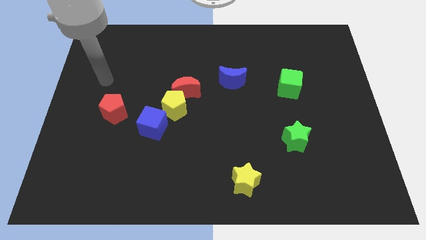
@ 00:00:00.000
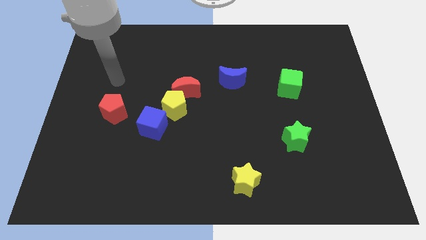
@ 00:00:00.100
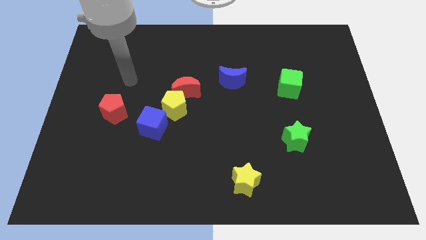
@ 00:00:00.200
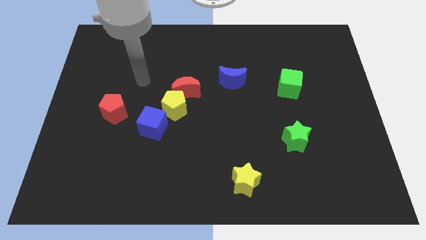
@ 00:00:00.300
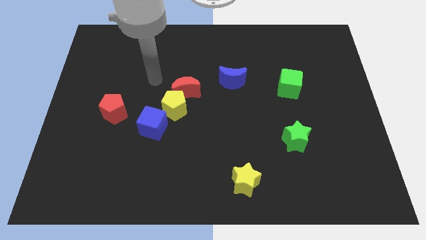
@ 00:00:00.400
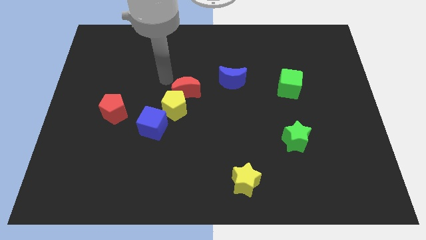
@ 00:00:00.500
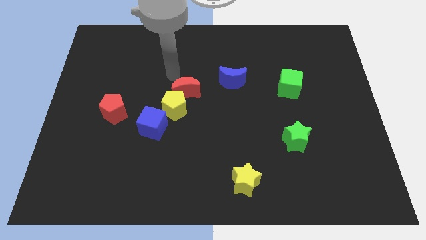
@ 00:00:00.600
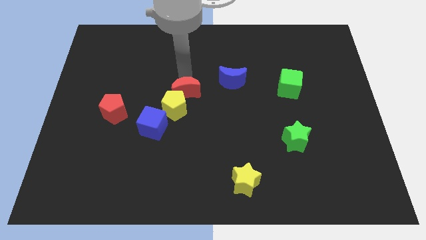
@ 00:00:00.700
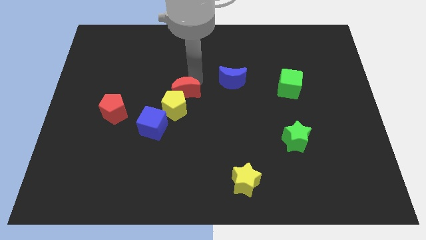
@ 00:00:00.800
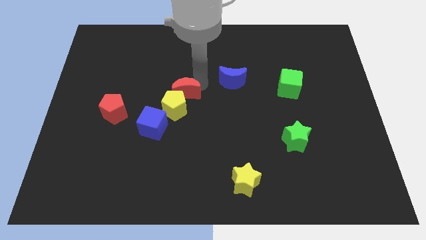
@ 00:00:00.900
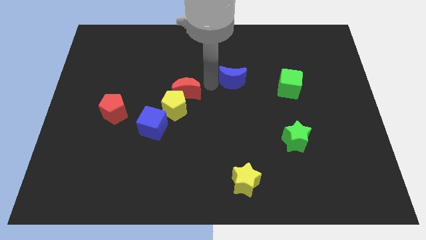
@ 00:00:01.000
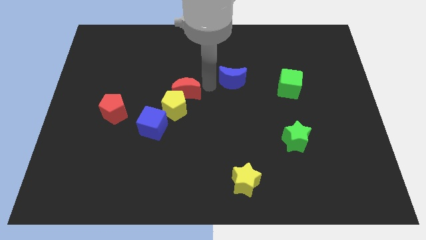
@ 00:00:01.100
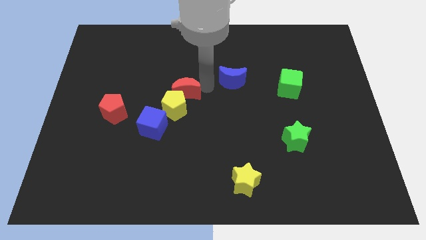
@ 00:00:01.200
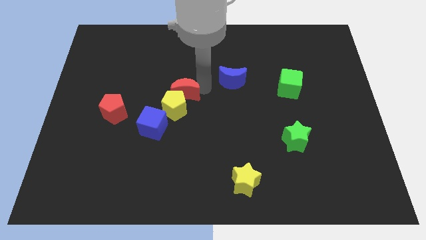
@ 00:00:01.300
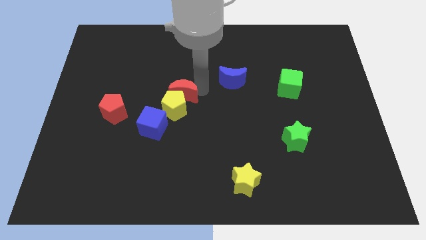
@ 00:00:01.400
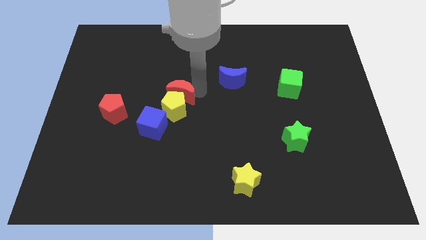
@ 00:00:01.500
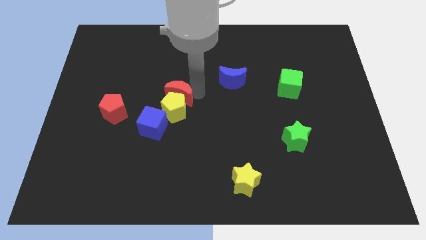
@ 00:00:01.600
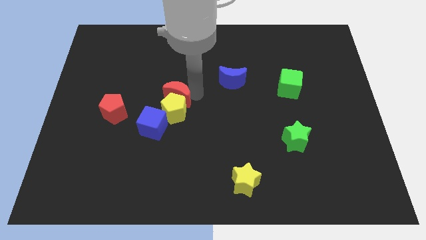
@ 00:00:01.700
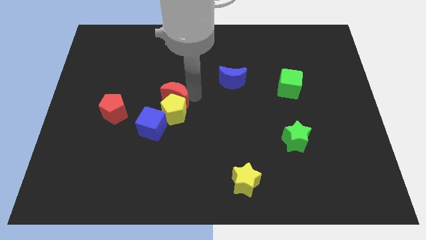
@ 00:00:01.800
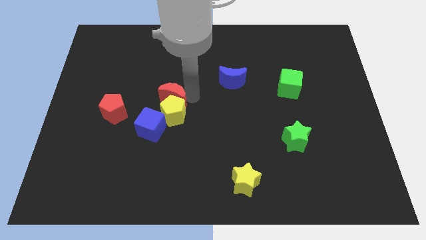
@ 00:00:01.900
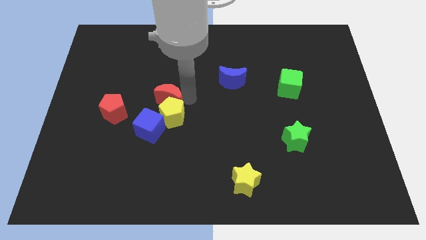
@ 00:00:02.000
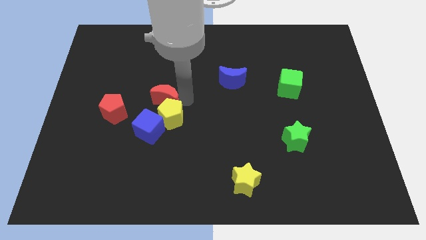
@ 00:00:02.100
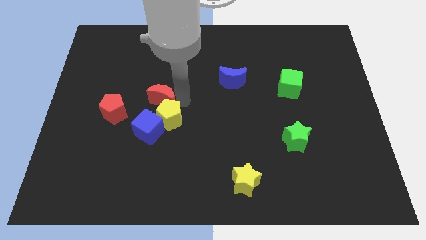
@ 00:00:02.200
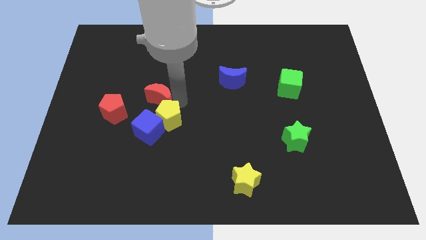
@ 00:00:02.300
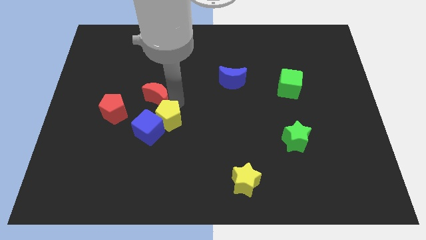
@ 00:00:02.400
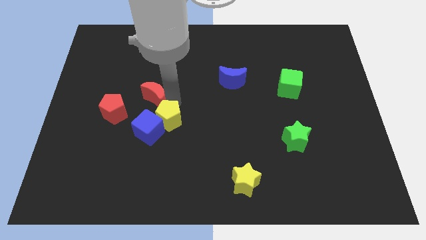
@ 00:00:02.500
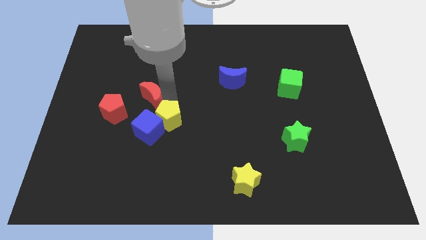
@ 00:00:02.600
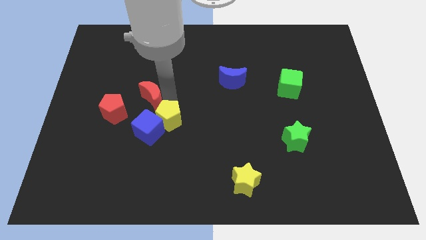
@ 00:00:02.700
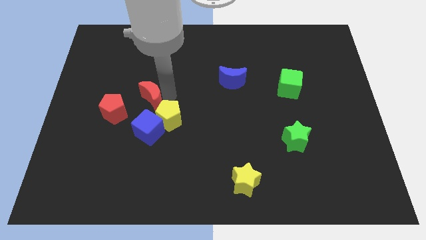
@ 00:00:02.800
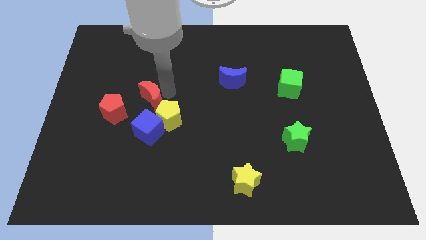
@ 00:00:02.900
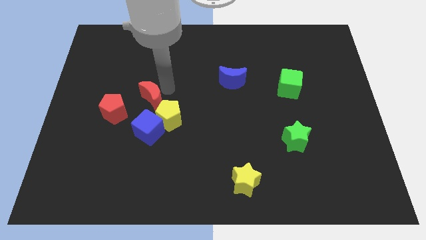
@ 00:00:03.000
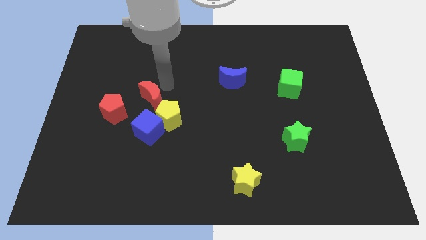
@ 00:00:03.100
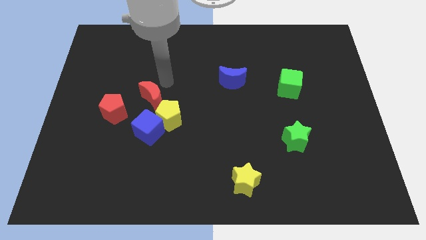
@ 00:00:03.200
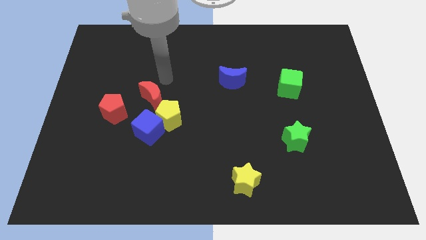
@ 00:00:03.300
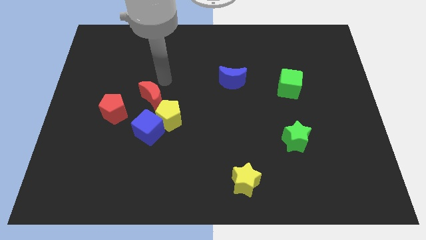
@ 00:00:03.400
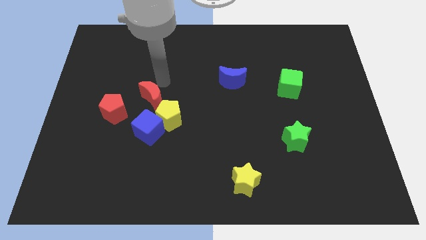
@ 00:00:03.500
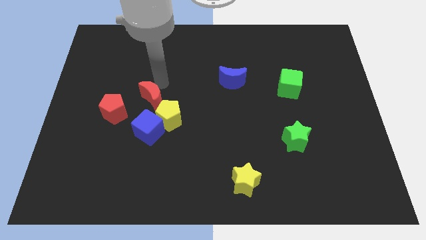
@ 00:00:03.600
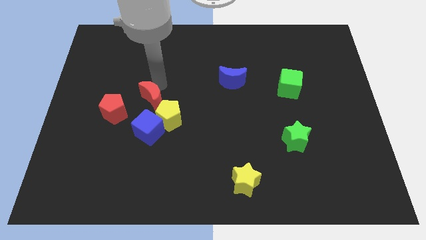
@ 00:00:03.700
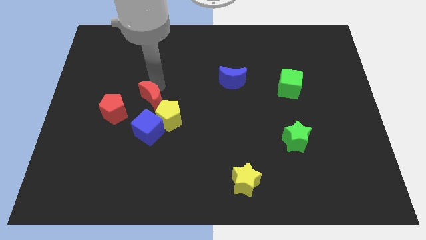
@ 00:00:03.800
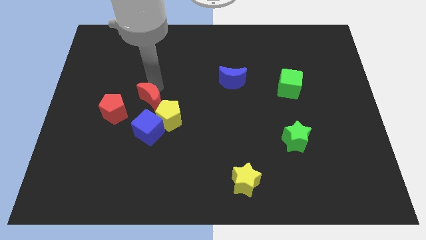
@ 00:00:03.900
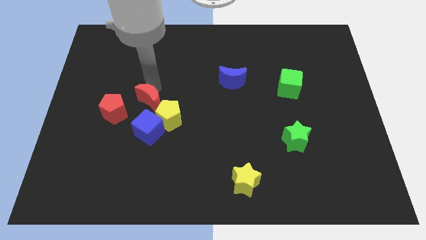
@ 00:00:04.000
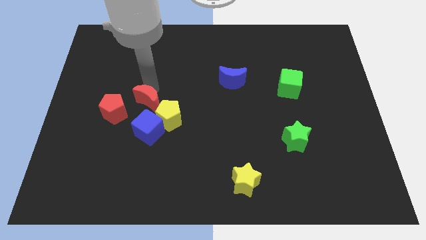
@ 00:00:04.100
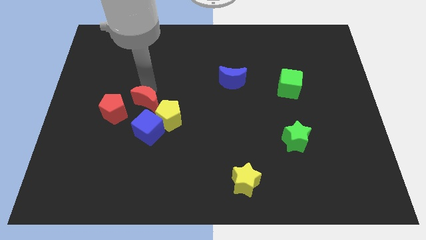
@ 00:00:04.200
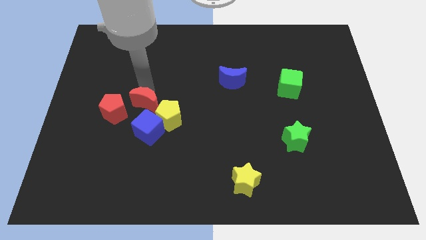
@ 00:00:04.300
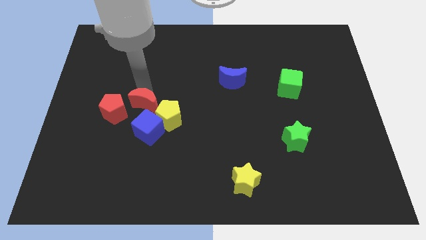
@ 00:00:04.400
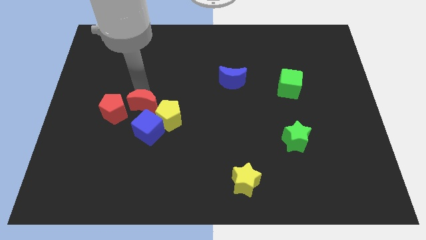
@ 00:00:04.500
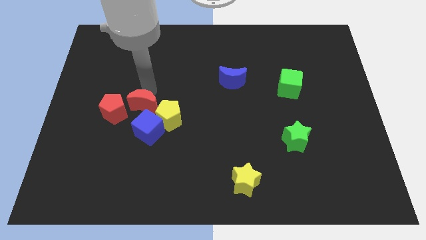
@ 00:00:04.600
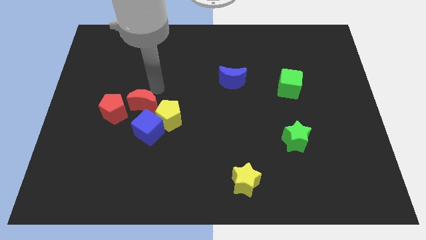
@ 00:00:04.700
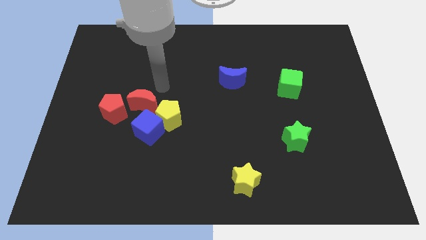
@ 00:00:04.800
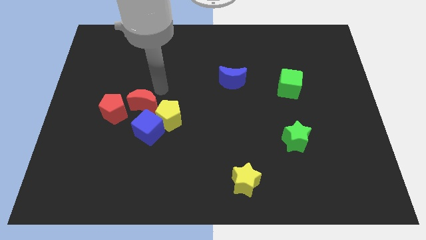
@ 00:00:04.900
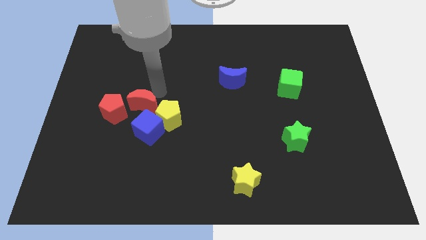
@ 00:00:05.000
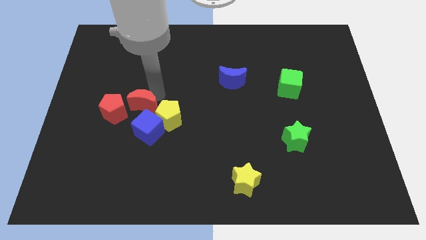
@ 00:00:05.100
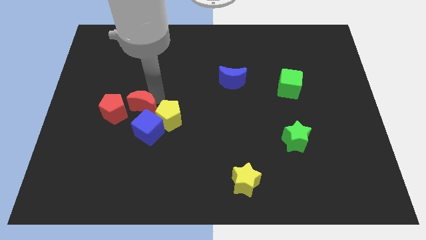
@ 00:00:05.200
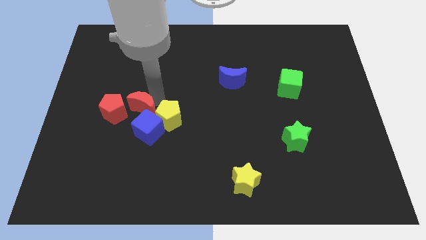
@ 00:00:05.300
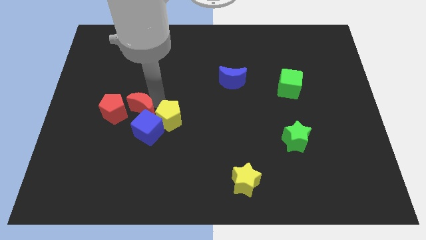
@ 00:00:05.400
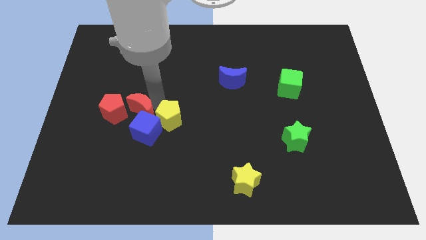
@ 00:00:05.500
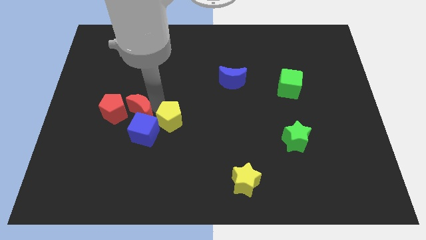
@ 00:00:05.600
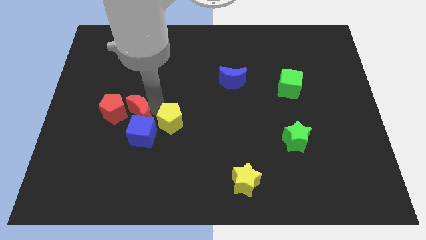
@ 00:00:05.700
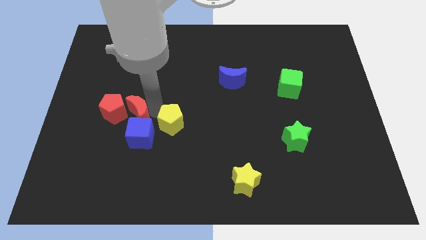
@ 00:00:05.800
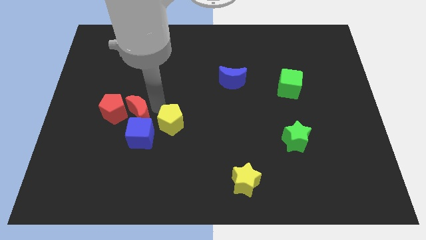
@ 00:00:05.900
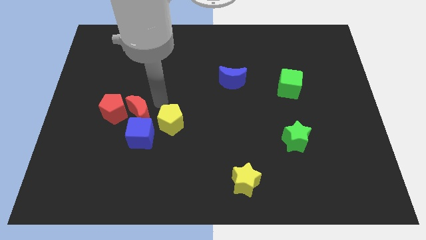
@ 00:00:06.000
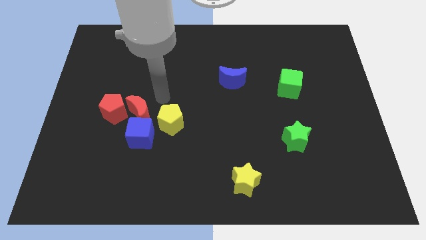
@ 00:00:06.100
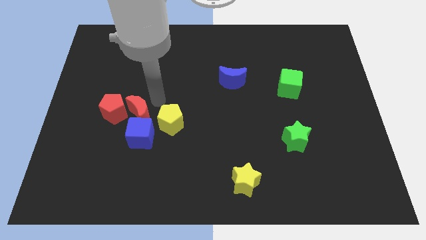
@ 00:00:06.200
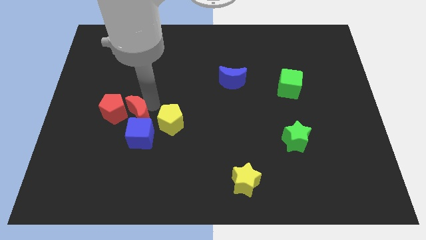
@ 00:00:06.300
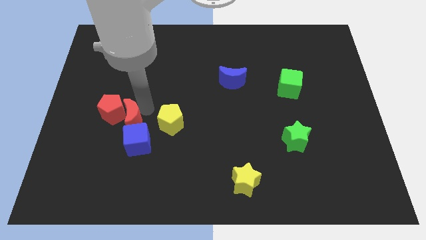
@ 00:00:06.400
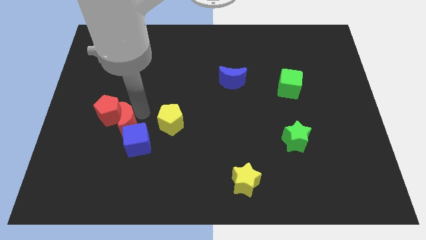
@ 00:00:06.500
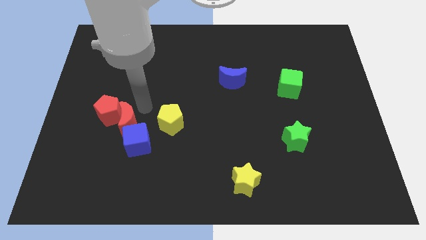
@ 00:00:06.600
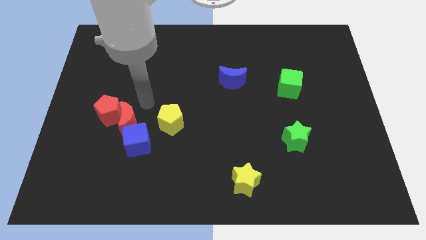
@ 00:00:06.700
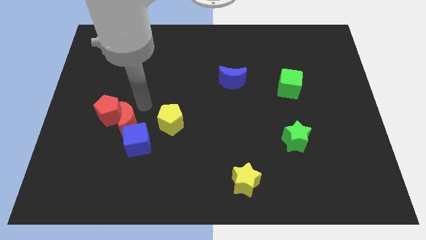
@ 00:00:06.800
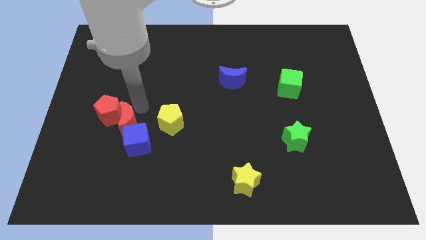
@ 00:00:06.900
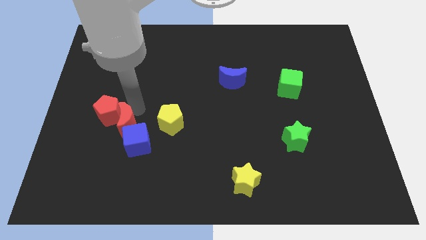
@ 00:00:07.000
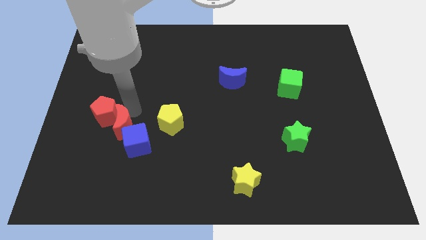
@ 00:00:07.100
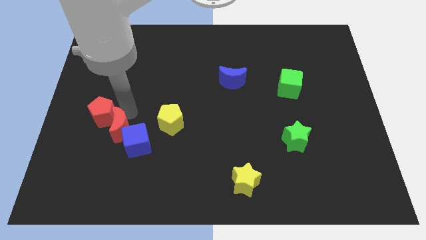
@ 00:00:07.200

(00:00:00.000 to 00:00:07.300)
push the red moon to the bottom of the red pentagon
